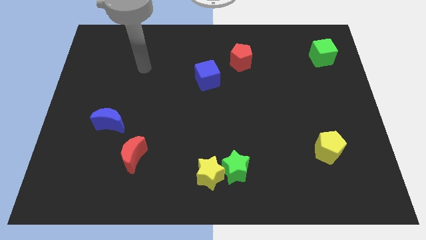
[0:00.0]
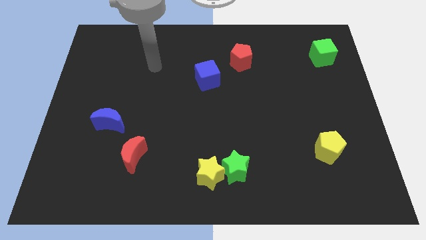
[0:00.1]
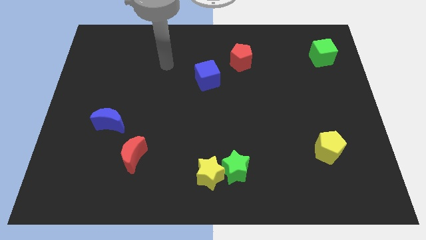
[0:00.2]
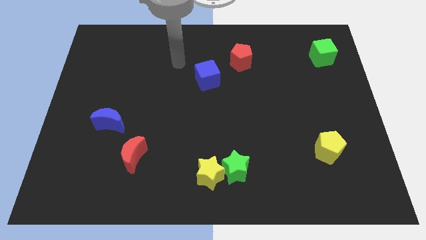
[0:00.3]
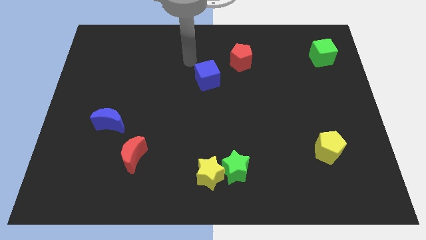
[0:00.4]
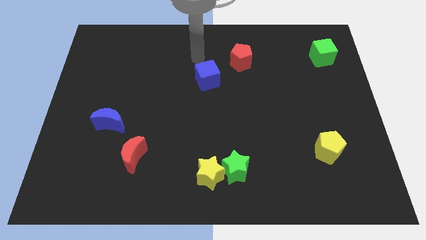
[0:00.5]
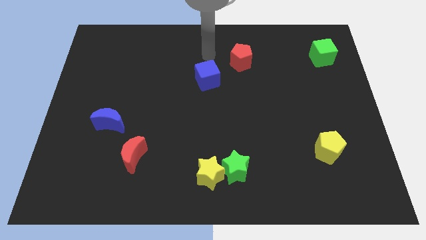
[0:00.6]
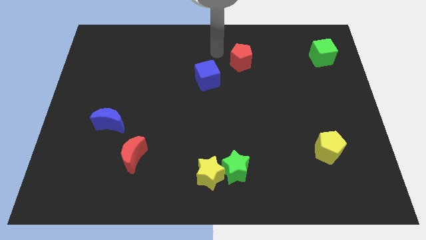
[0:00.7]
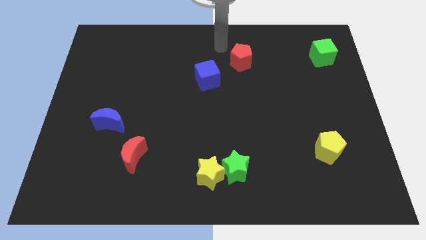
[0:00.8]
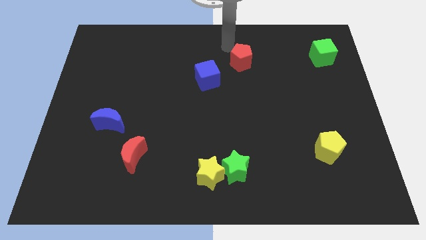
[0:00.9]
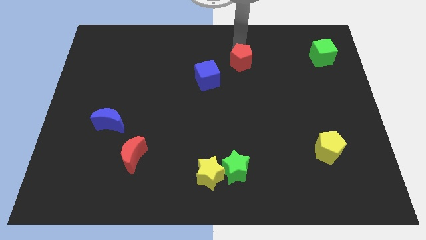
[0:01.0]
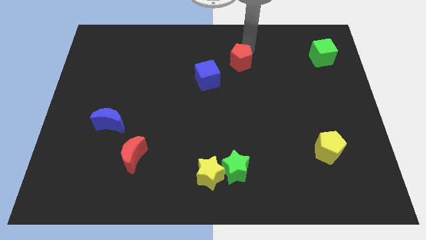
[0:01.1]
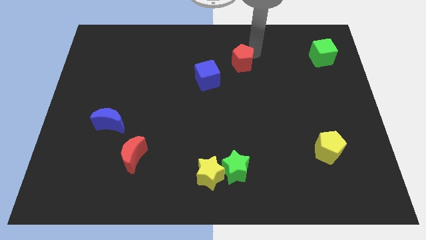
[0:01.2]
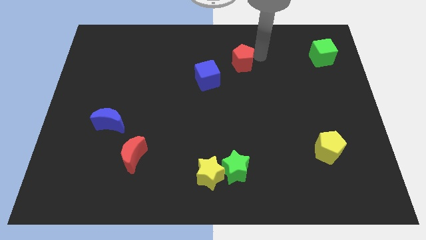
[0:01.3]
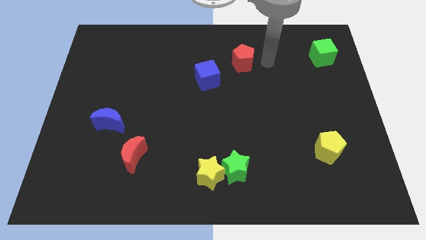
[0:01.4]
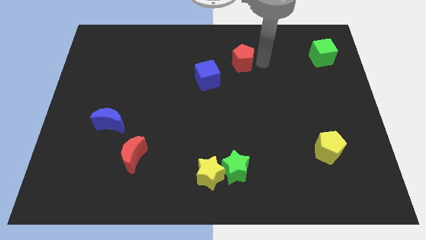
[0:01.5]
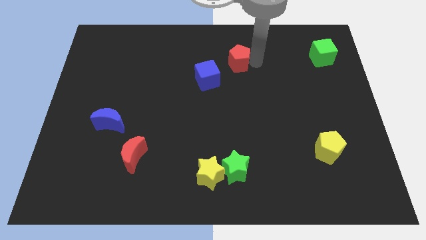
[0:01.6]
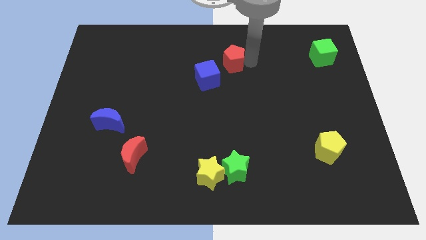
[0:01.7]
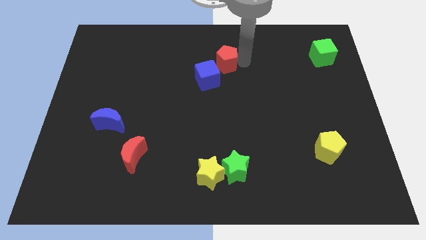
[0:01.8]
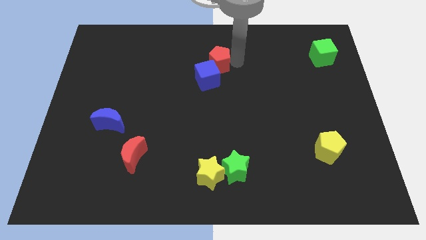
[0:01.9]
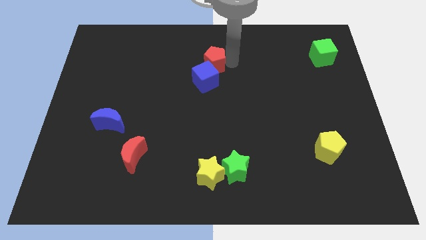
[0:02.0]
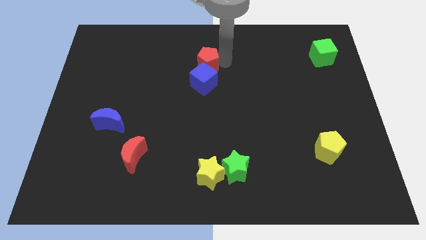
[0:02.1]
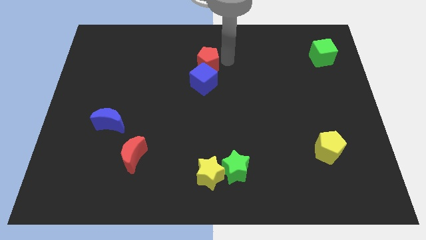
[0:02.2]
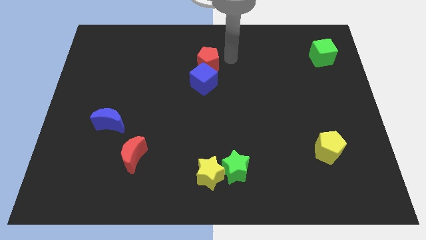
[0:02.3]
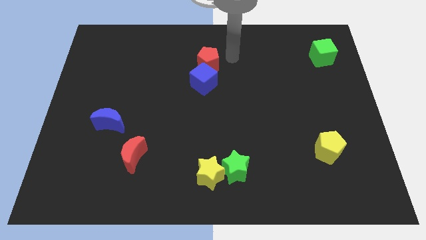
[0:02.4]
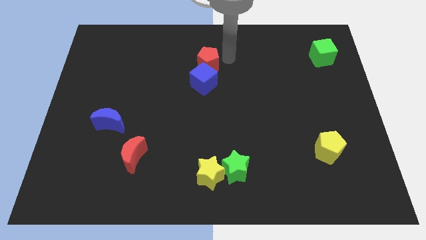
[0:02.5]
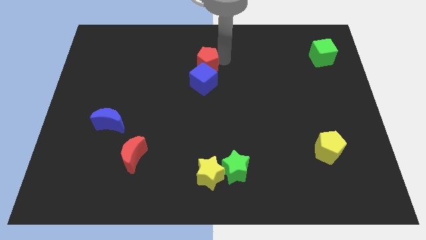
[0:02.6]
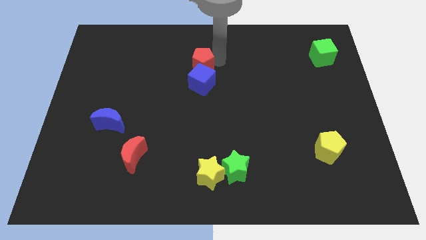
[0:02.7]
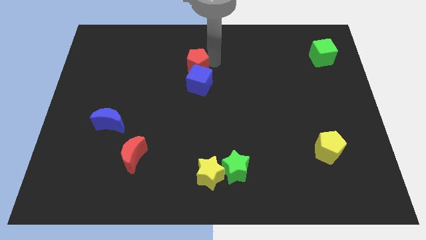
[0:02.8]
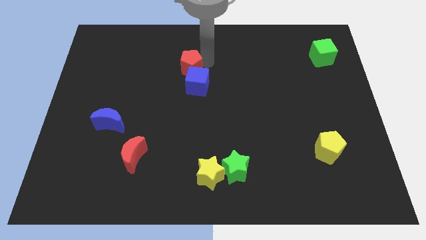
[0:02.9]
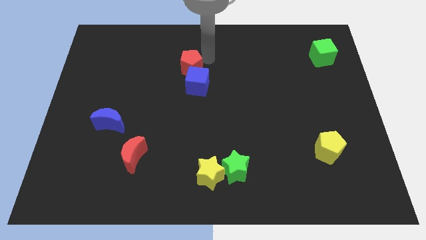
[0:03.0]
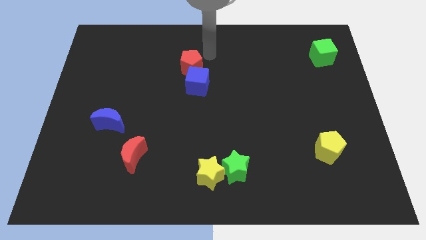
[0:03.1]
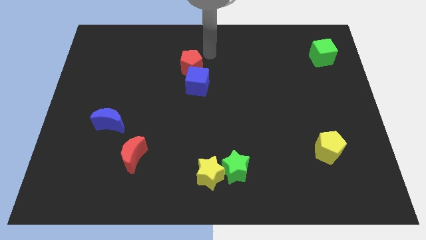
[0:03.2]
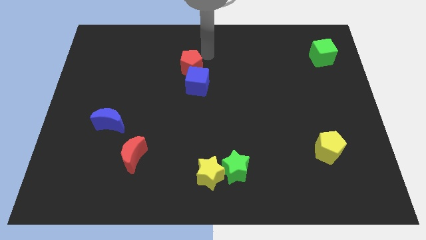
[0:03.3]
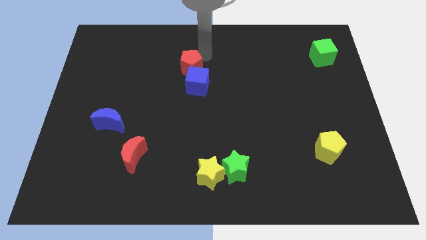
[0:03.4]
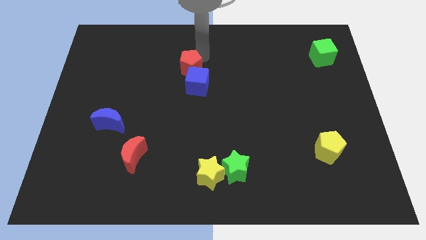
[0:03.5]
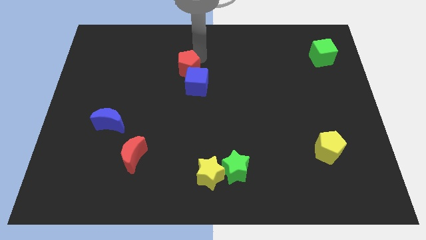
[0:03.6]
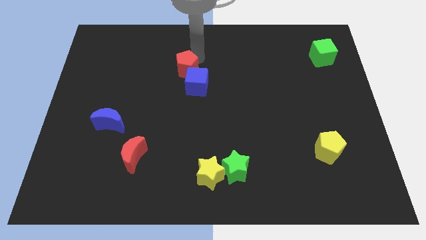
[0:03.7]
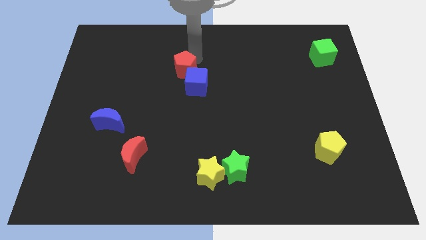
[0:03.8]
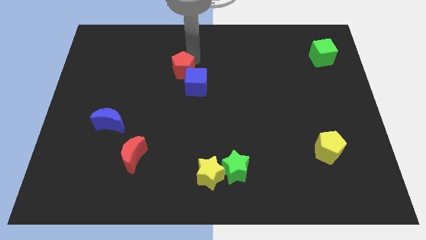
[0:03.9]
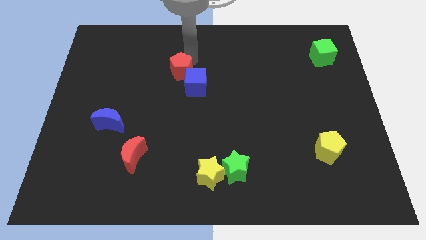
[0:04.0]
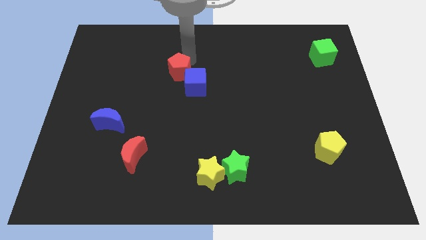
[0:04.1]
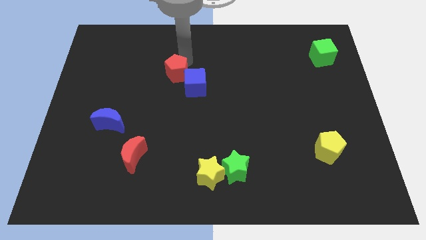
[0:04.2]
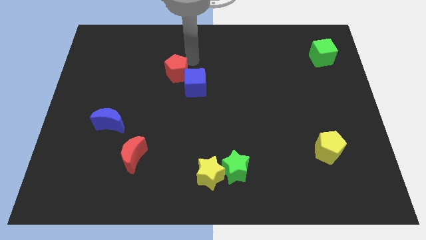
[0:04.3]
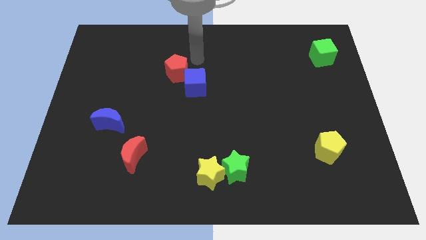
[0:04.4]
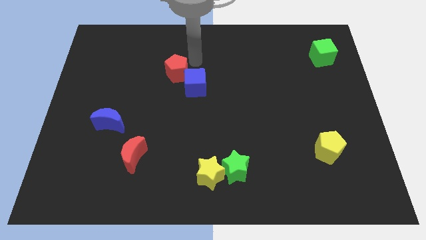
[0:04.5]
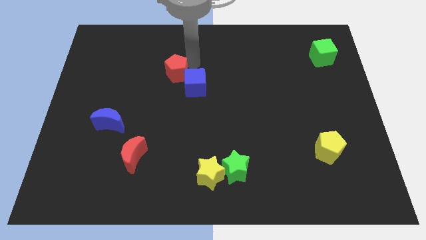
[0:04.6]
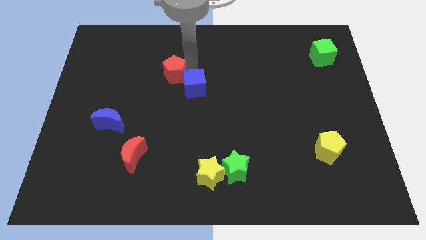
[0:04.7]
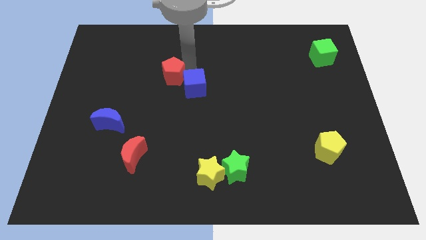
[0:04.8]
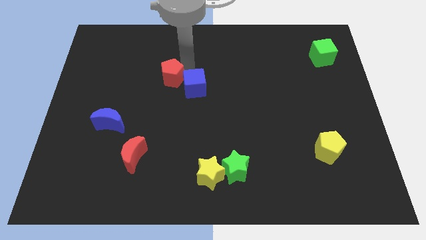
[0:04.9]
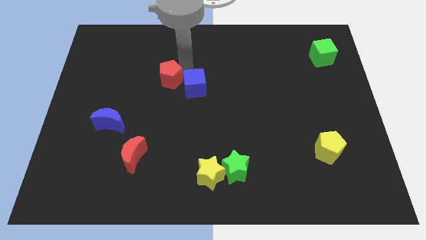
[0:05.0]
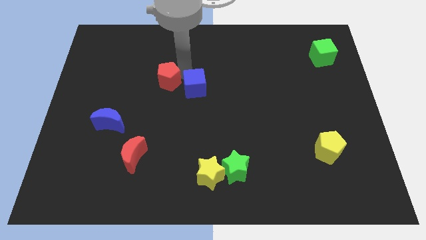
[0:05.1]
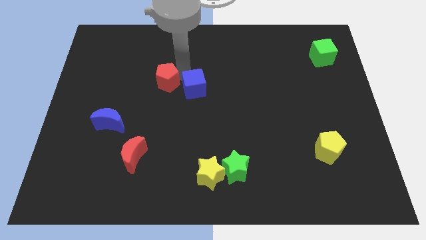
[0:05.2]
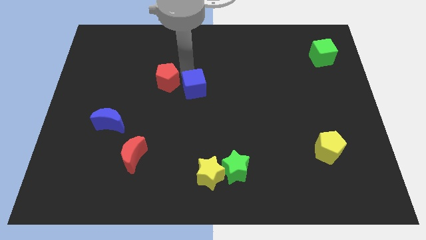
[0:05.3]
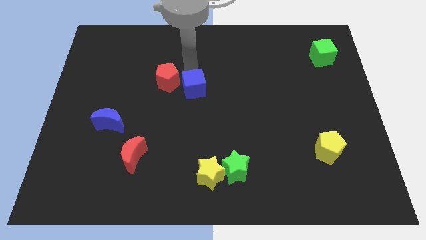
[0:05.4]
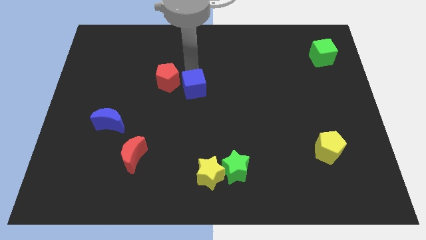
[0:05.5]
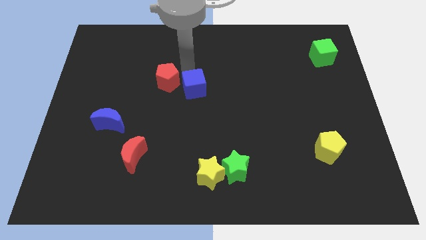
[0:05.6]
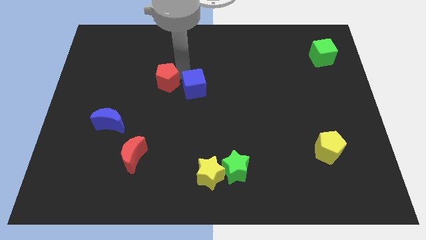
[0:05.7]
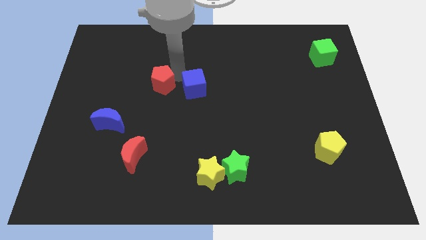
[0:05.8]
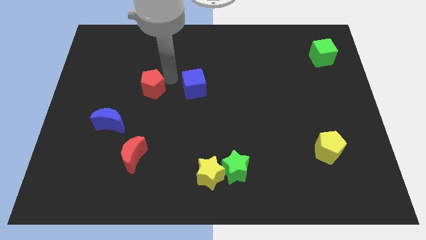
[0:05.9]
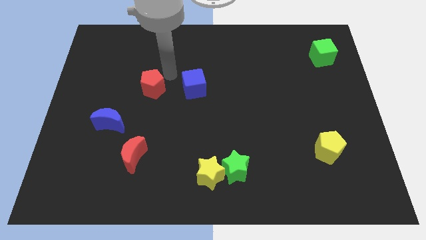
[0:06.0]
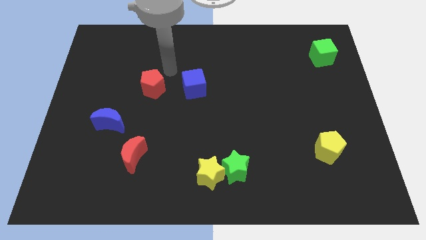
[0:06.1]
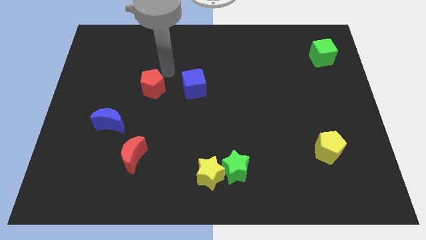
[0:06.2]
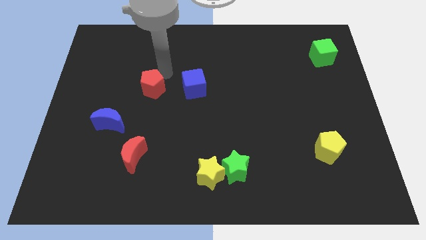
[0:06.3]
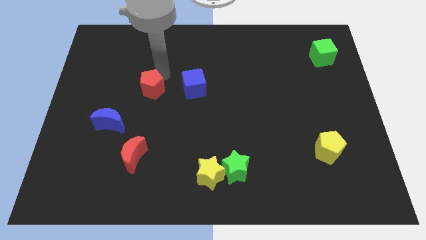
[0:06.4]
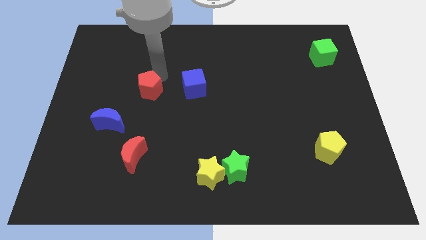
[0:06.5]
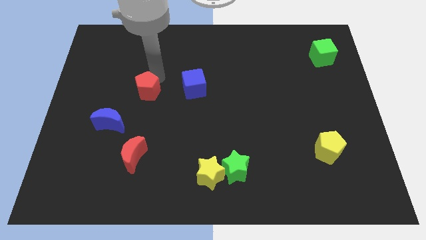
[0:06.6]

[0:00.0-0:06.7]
push the red pentagon diagonally up and to the right of the blue moon

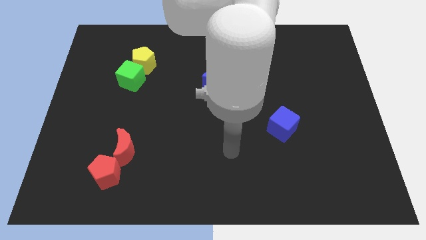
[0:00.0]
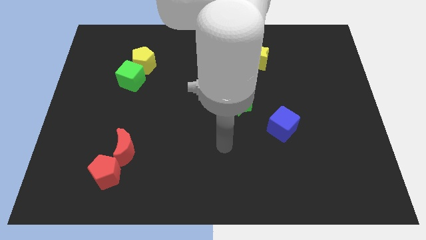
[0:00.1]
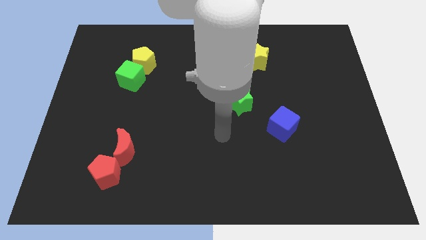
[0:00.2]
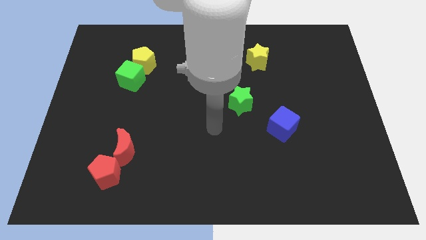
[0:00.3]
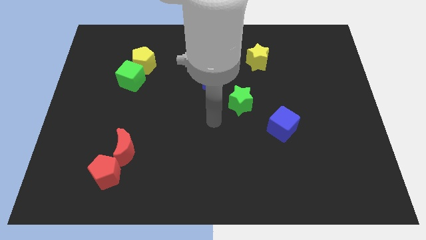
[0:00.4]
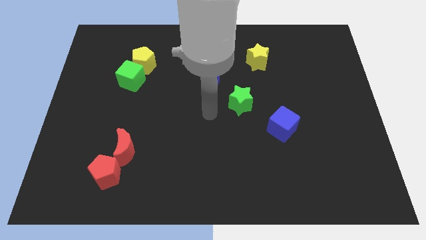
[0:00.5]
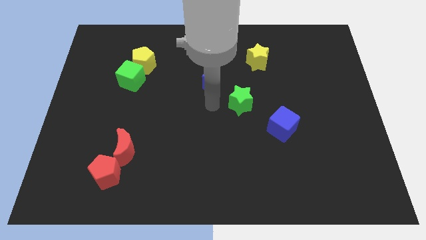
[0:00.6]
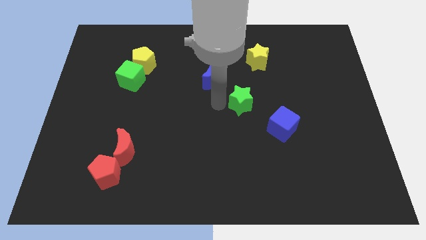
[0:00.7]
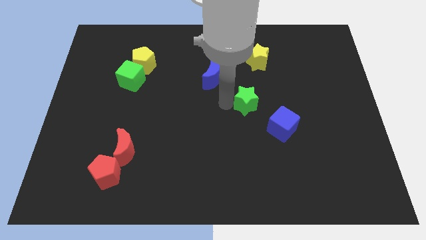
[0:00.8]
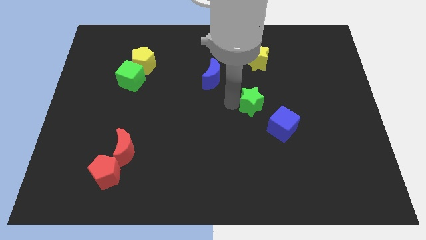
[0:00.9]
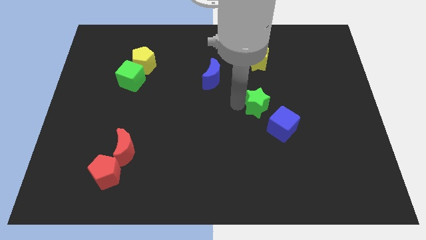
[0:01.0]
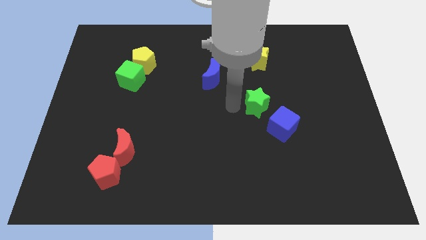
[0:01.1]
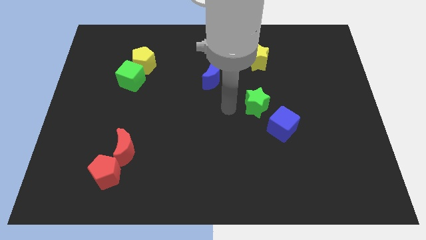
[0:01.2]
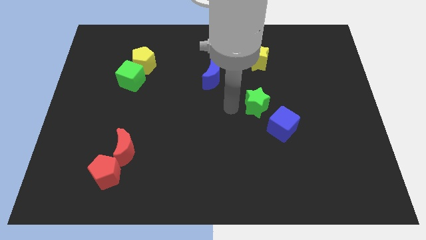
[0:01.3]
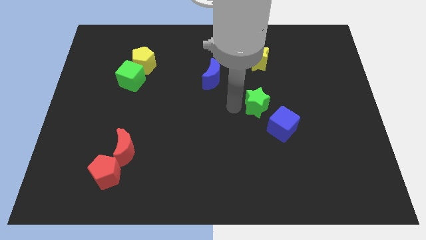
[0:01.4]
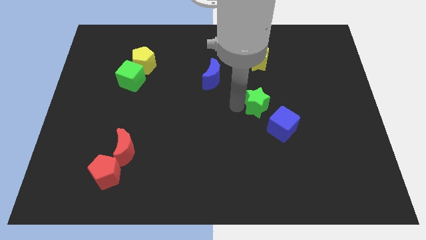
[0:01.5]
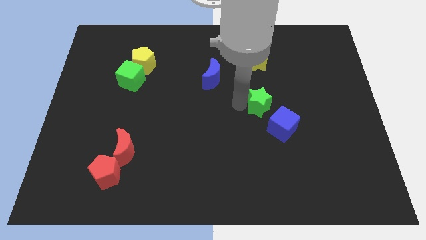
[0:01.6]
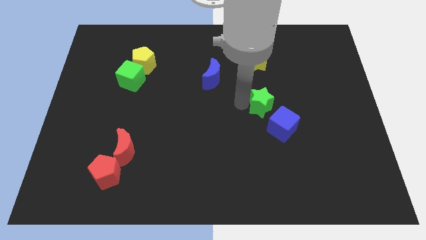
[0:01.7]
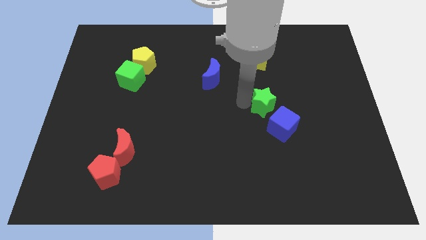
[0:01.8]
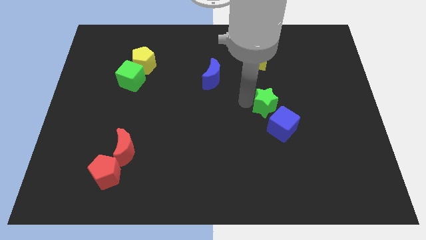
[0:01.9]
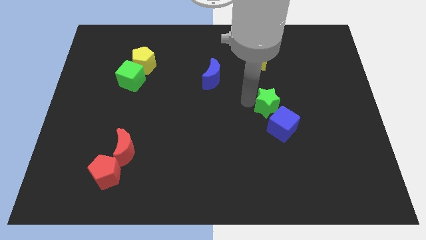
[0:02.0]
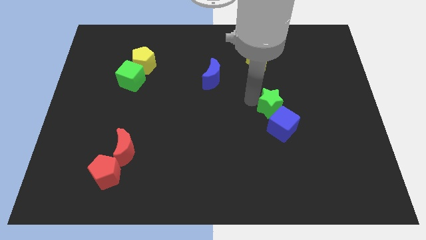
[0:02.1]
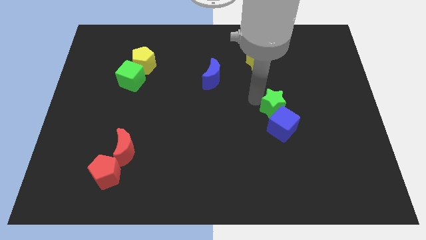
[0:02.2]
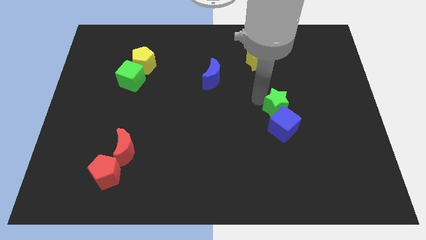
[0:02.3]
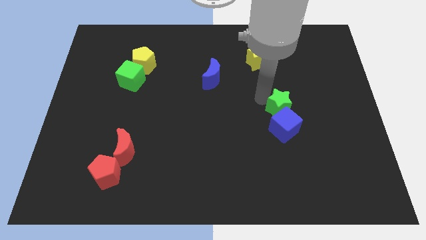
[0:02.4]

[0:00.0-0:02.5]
slide the green star to the top right of the blue cube
